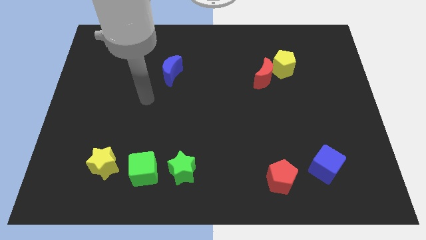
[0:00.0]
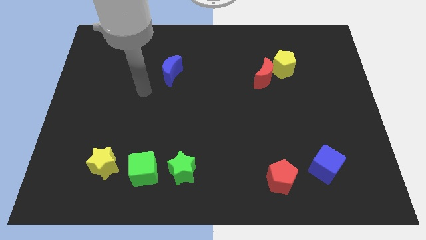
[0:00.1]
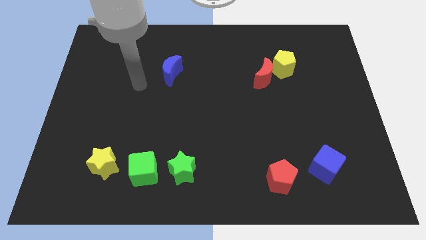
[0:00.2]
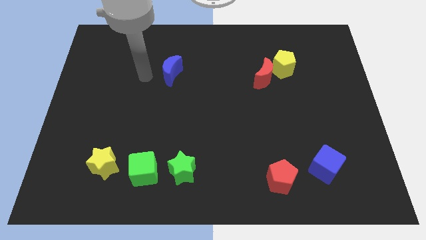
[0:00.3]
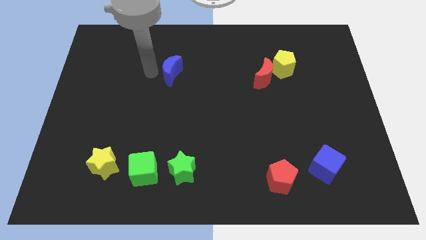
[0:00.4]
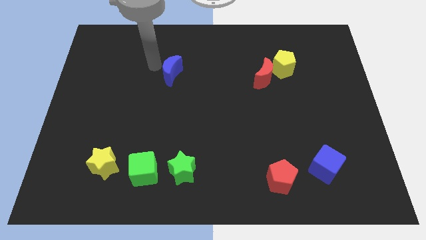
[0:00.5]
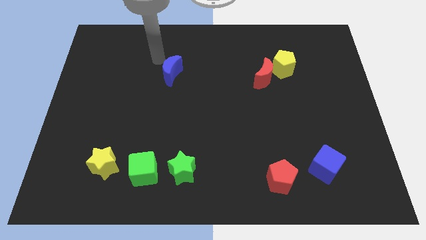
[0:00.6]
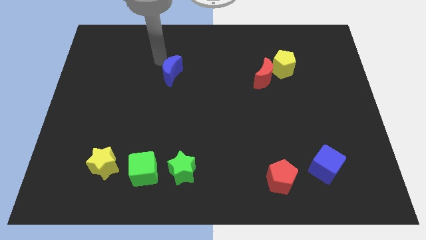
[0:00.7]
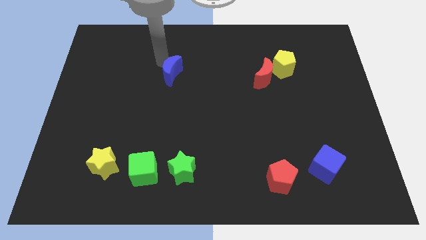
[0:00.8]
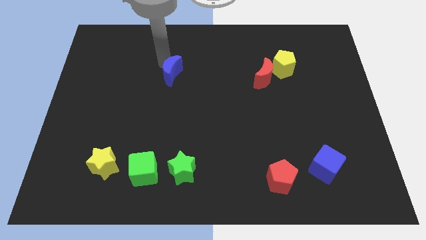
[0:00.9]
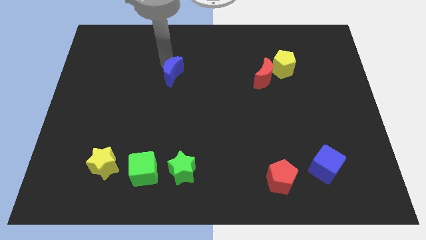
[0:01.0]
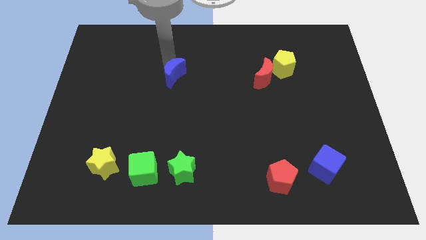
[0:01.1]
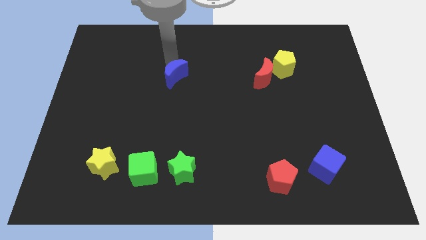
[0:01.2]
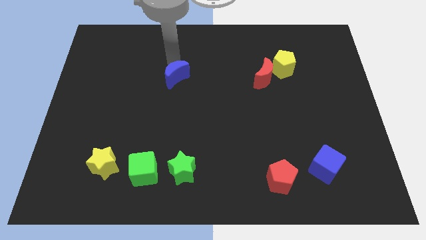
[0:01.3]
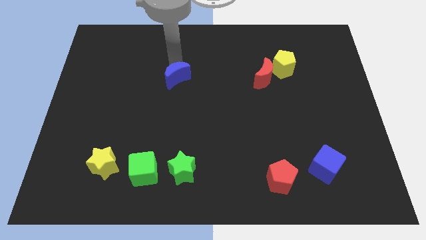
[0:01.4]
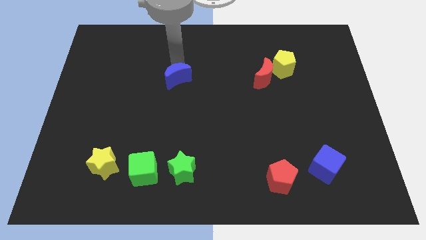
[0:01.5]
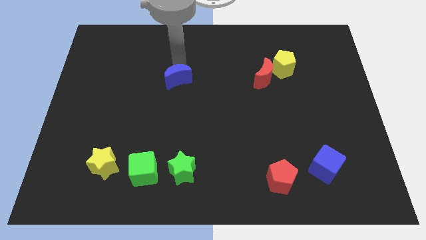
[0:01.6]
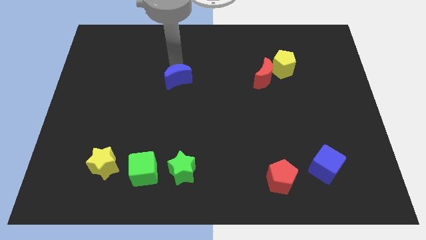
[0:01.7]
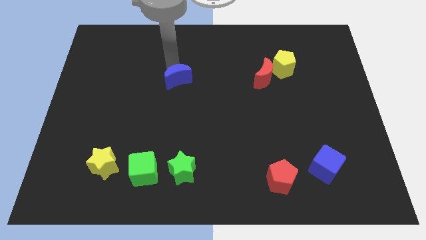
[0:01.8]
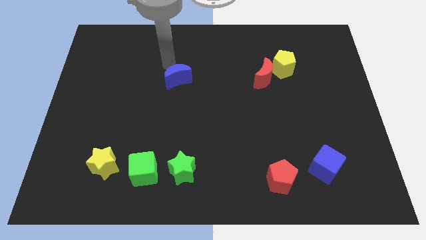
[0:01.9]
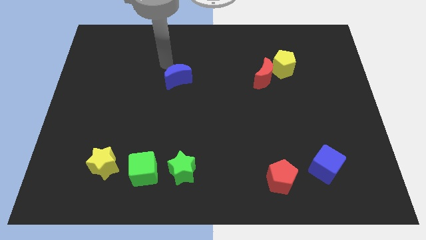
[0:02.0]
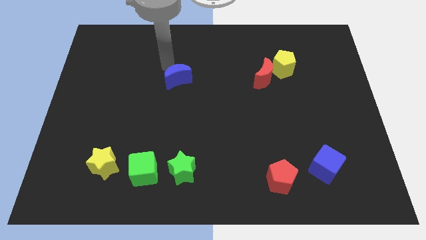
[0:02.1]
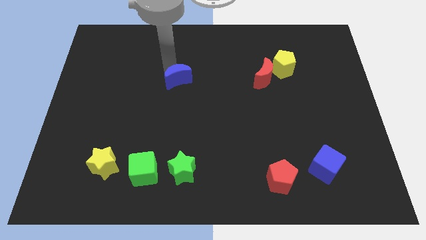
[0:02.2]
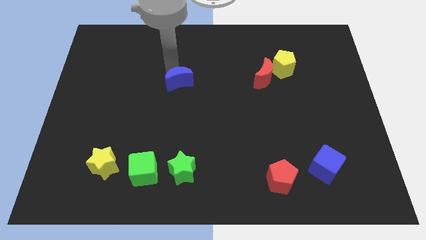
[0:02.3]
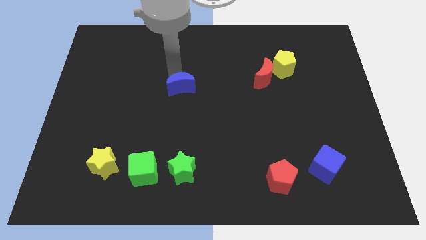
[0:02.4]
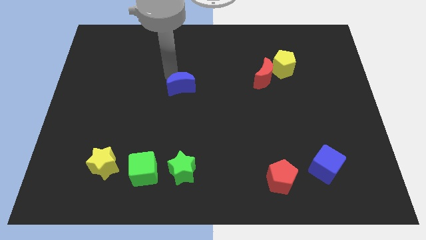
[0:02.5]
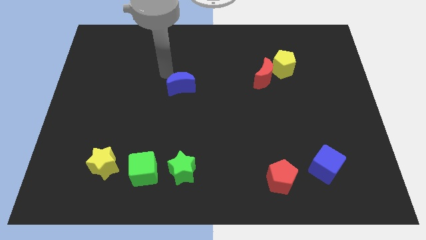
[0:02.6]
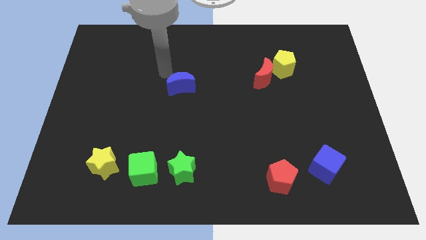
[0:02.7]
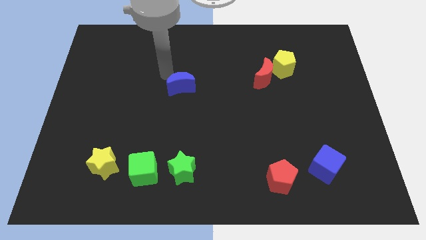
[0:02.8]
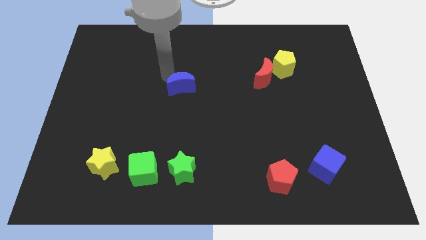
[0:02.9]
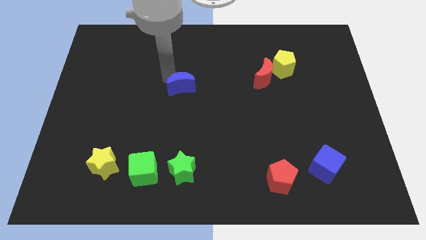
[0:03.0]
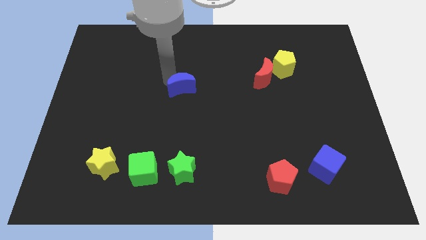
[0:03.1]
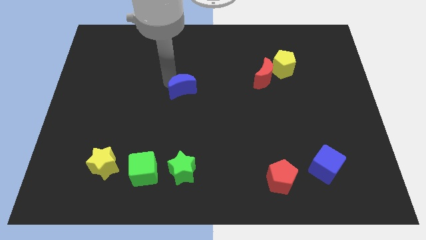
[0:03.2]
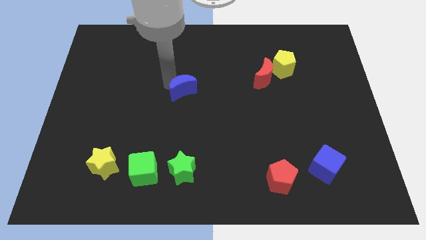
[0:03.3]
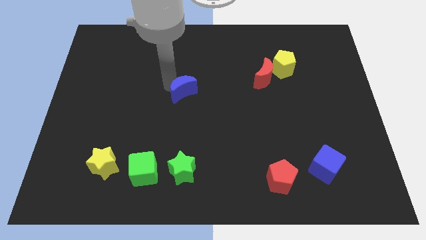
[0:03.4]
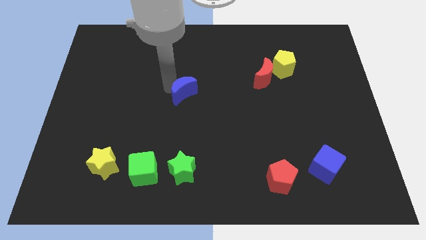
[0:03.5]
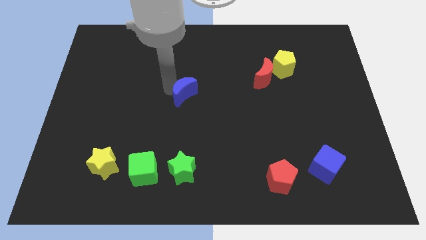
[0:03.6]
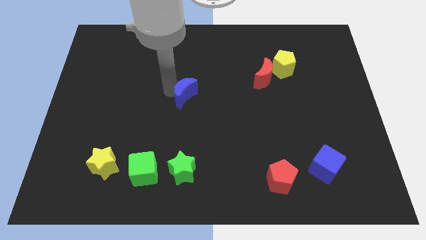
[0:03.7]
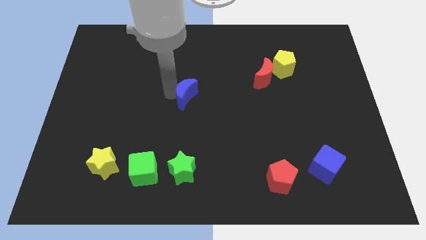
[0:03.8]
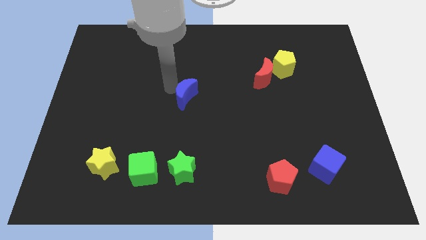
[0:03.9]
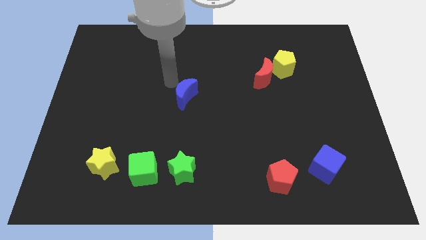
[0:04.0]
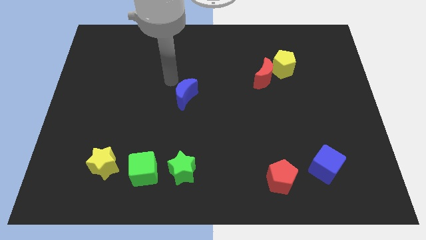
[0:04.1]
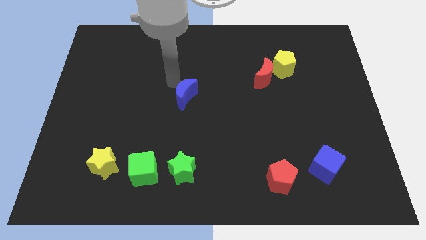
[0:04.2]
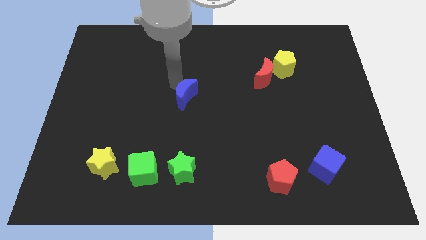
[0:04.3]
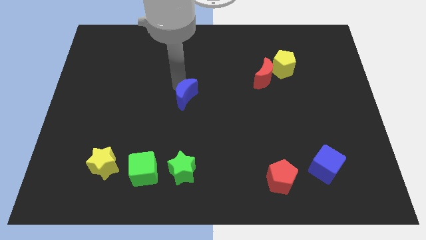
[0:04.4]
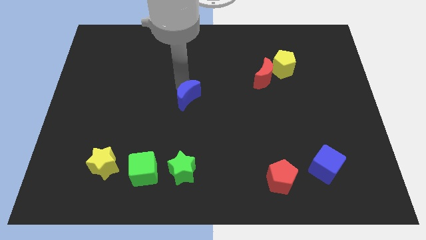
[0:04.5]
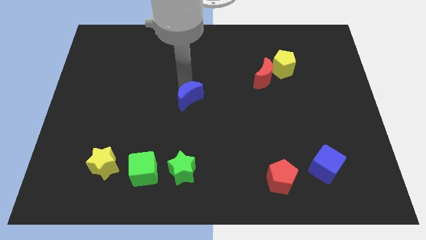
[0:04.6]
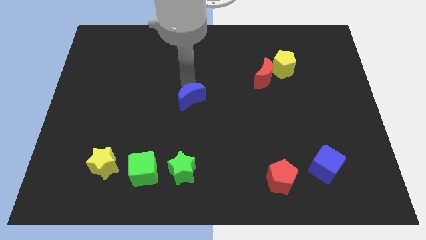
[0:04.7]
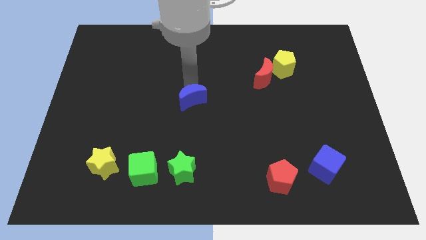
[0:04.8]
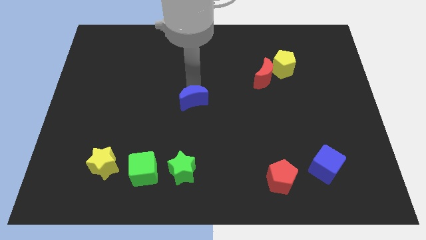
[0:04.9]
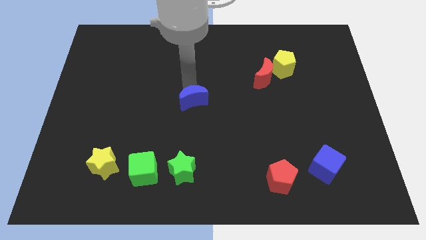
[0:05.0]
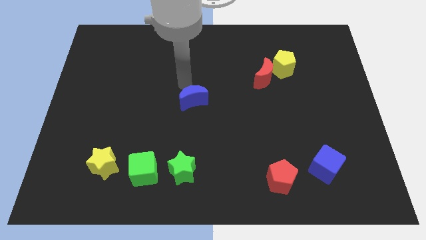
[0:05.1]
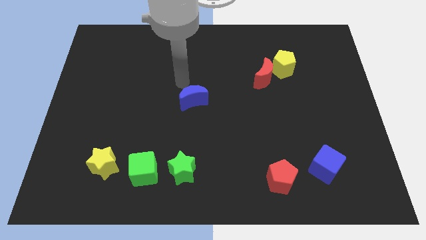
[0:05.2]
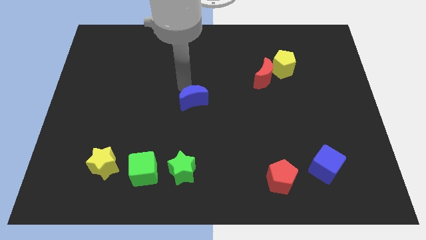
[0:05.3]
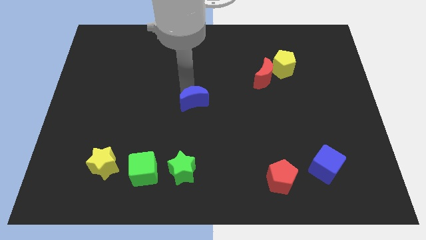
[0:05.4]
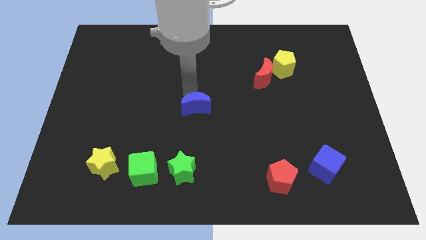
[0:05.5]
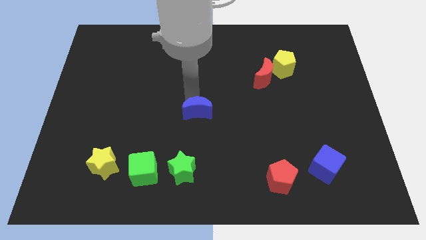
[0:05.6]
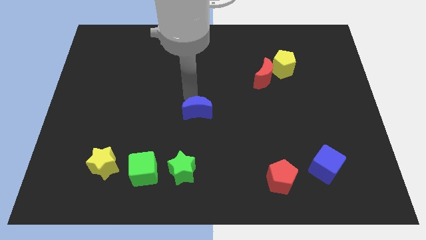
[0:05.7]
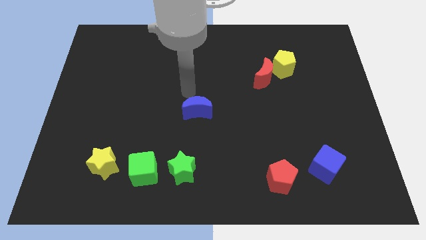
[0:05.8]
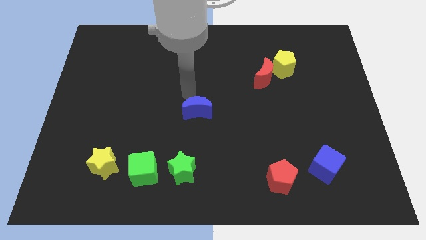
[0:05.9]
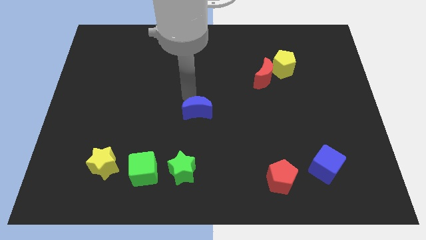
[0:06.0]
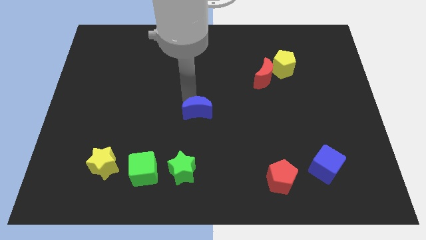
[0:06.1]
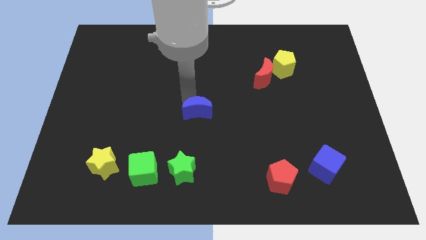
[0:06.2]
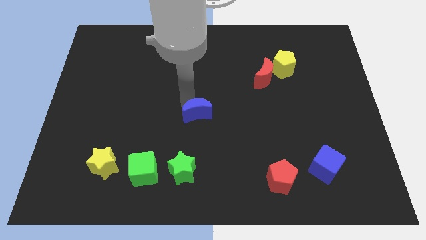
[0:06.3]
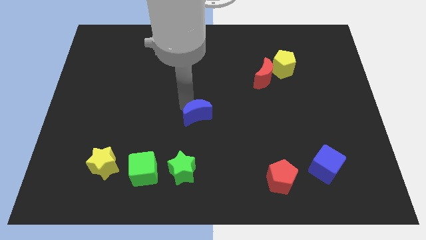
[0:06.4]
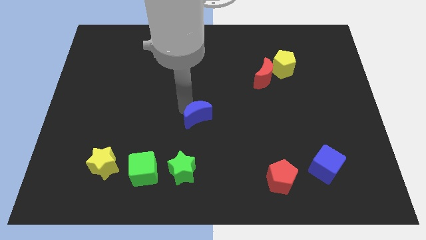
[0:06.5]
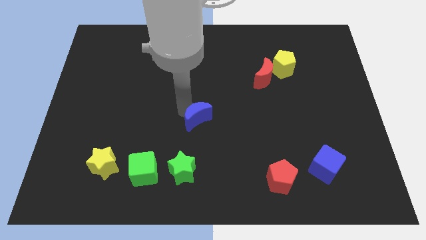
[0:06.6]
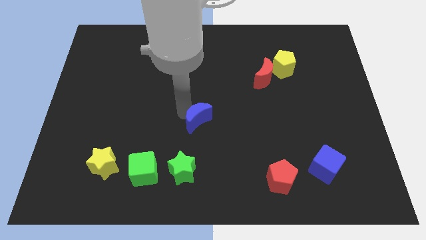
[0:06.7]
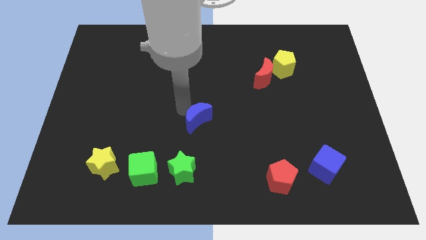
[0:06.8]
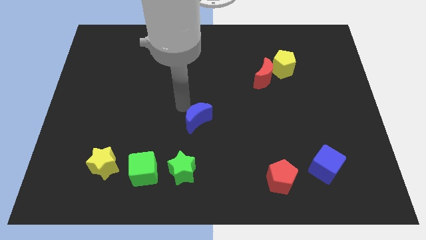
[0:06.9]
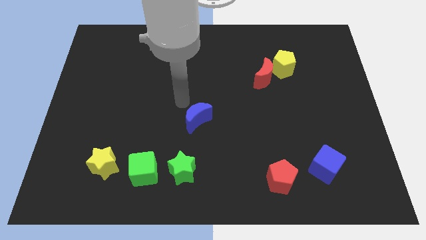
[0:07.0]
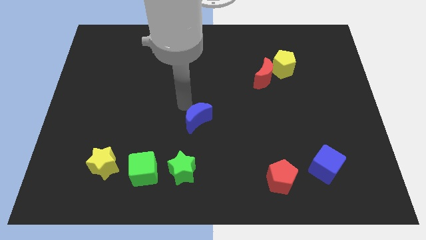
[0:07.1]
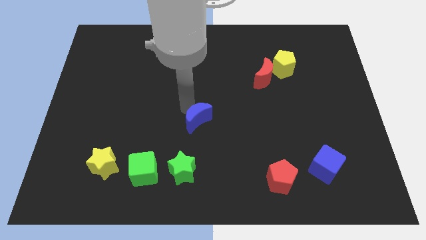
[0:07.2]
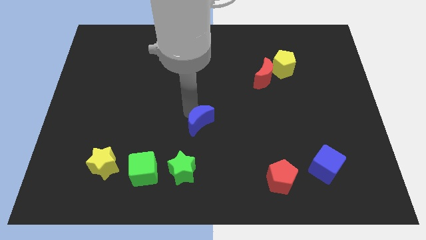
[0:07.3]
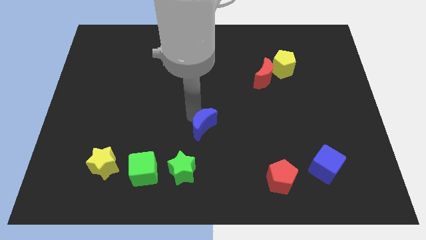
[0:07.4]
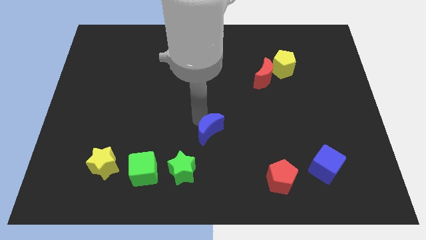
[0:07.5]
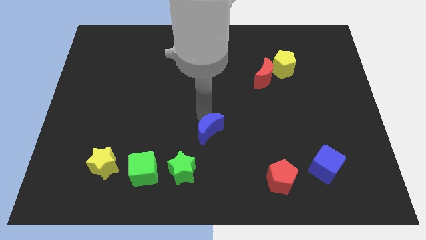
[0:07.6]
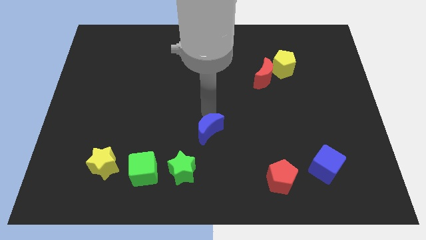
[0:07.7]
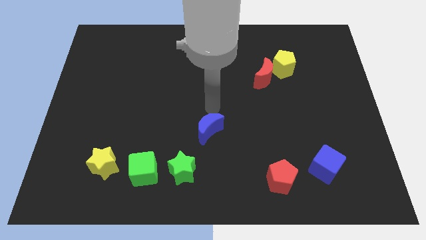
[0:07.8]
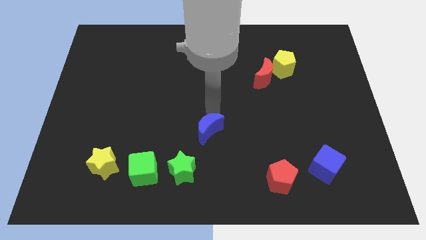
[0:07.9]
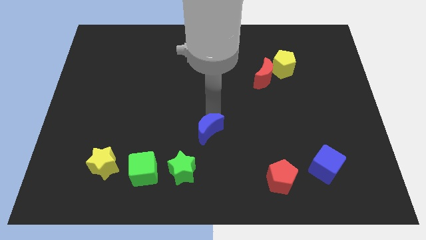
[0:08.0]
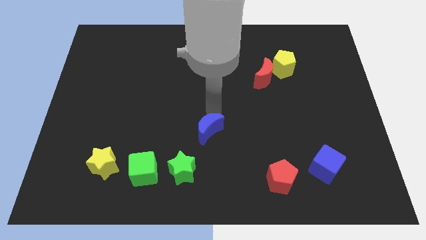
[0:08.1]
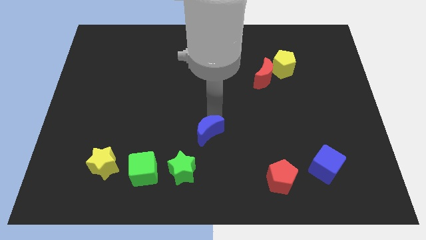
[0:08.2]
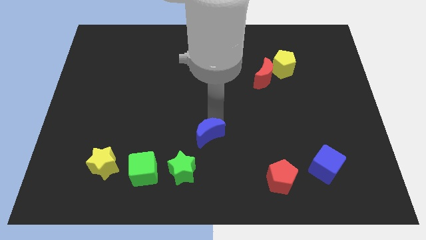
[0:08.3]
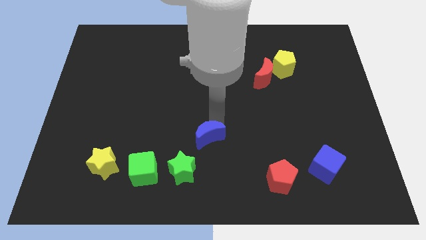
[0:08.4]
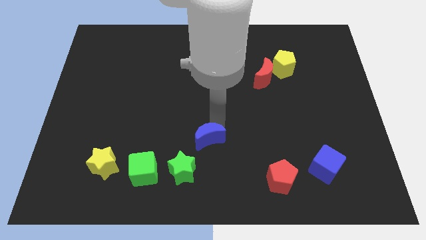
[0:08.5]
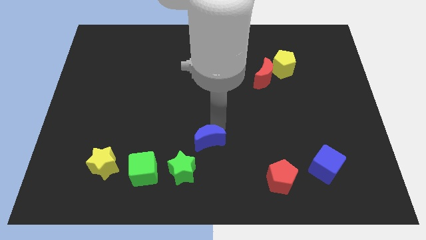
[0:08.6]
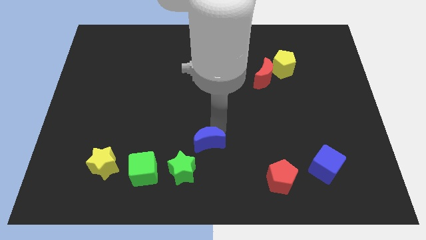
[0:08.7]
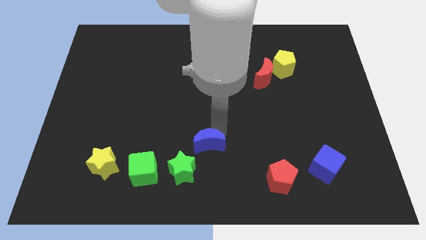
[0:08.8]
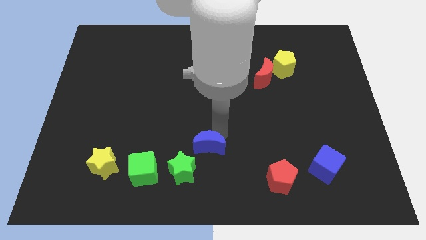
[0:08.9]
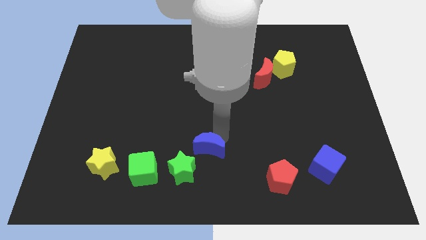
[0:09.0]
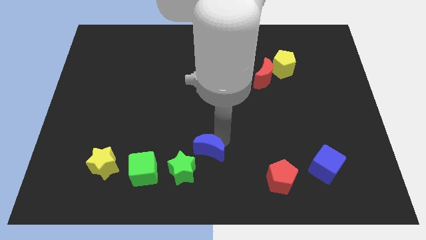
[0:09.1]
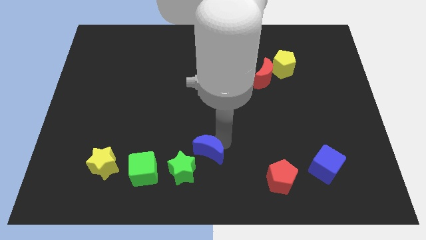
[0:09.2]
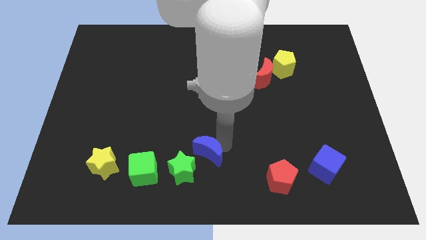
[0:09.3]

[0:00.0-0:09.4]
push the blue moon right of the green cube
